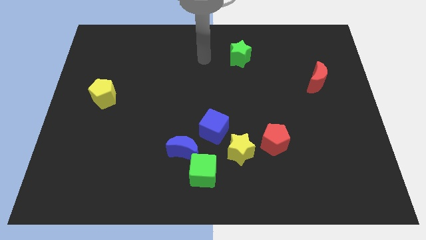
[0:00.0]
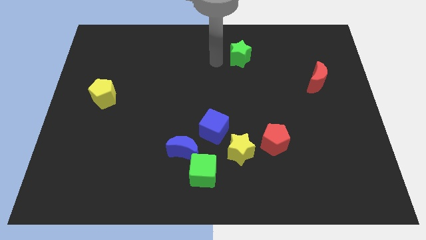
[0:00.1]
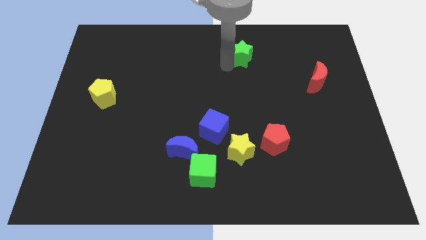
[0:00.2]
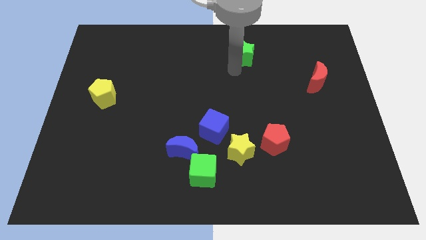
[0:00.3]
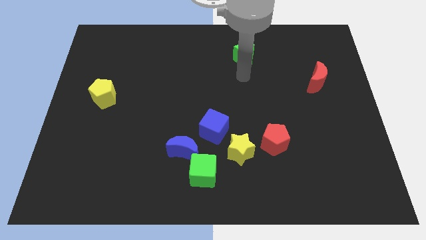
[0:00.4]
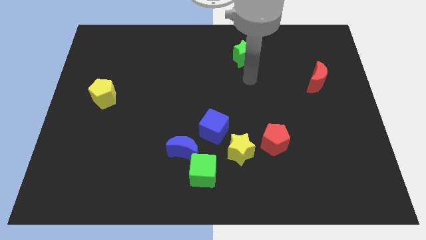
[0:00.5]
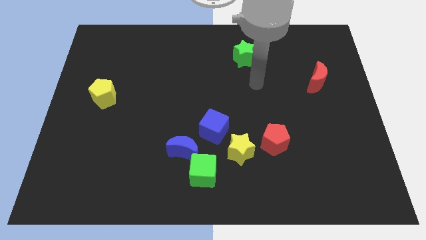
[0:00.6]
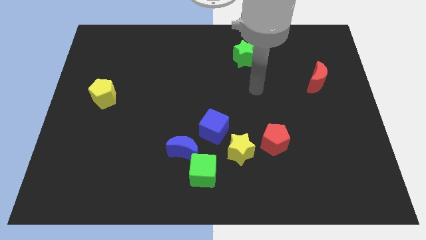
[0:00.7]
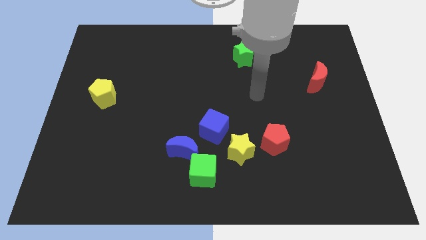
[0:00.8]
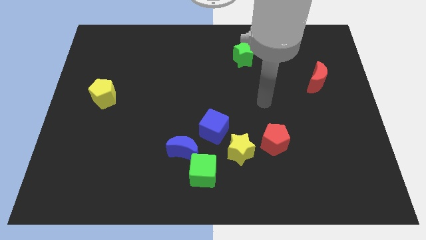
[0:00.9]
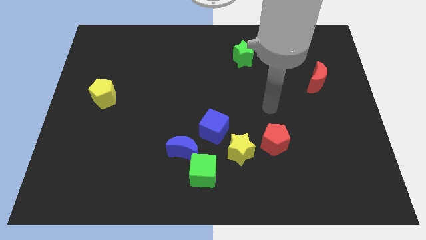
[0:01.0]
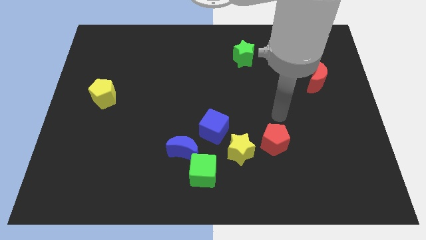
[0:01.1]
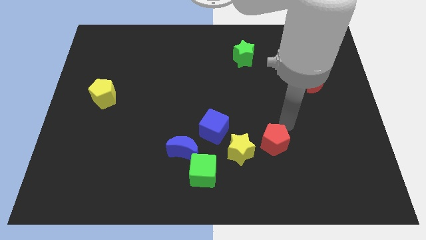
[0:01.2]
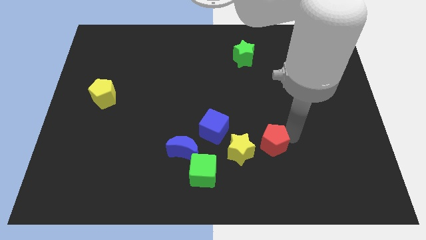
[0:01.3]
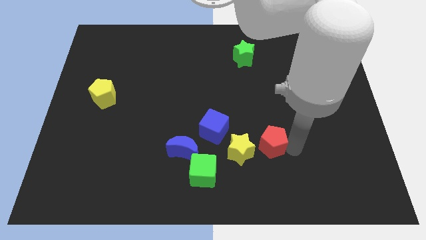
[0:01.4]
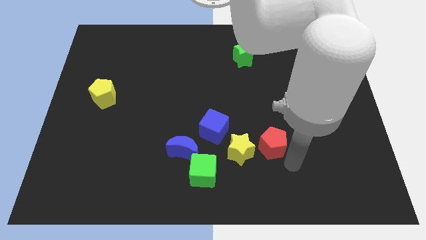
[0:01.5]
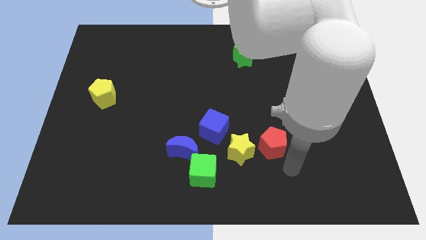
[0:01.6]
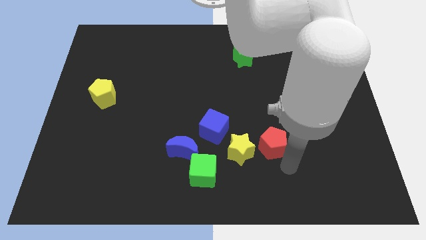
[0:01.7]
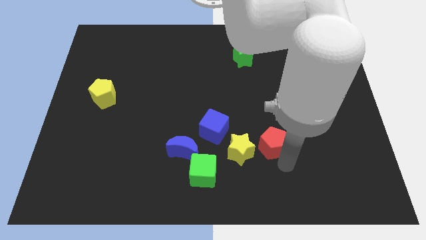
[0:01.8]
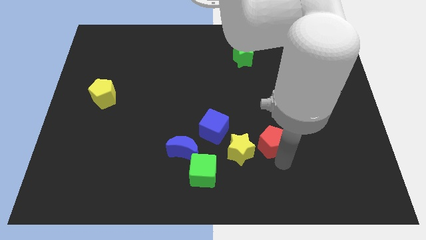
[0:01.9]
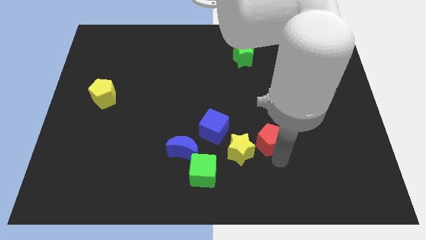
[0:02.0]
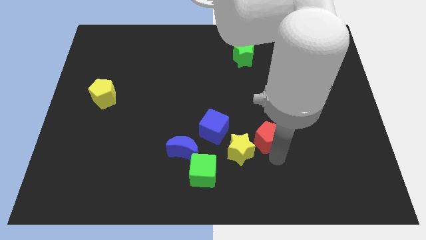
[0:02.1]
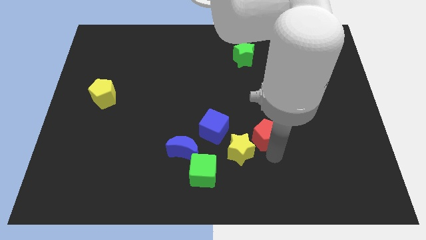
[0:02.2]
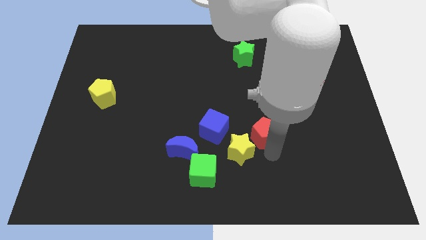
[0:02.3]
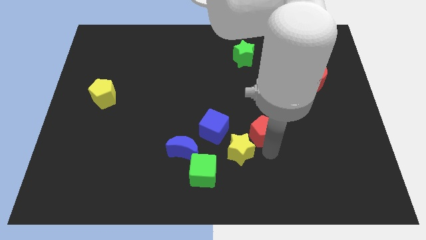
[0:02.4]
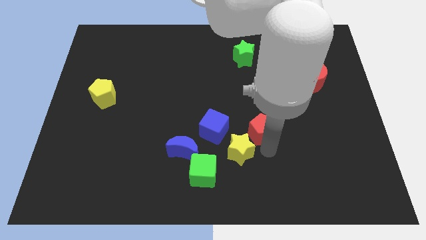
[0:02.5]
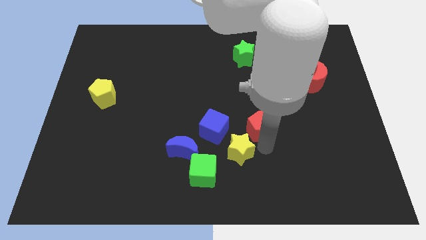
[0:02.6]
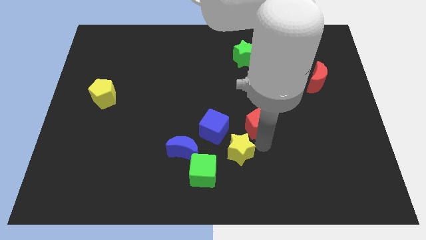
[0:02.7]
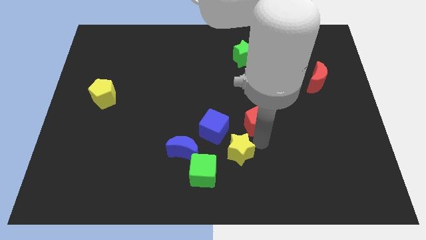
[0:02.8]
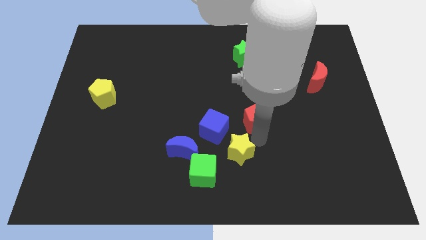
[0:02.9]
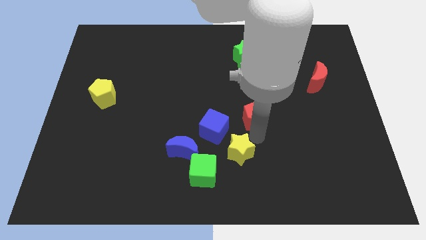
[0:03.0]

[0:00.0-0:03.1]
move the red pentagon slightly up and then to the left

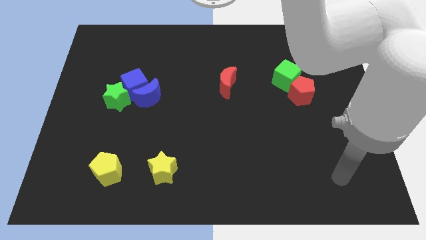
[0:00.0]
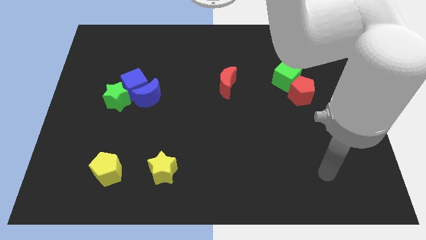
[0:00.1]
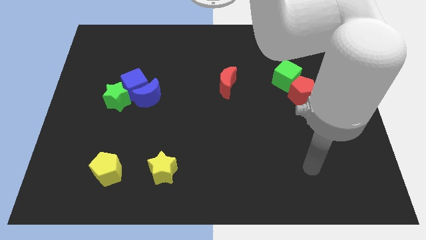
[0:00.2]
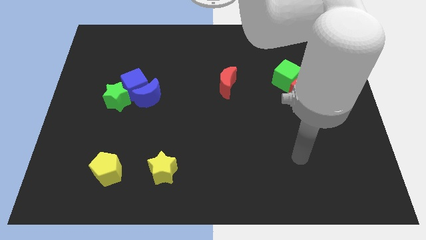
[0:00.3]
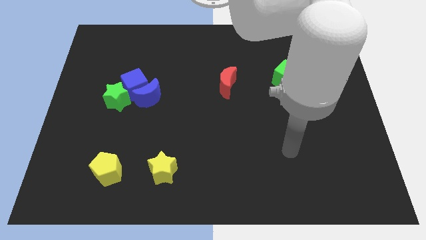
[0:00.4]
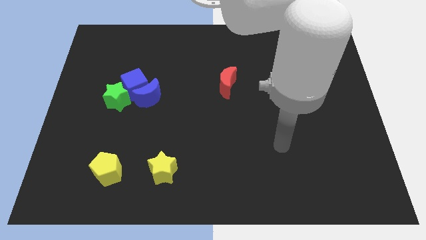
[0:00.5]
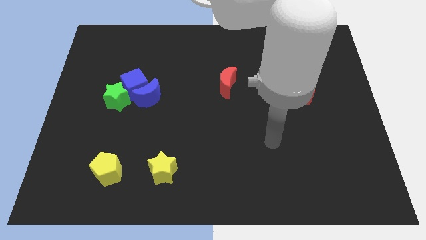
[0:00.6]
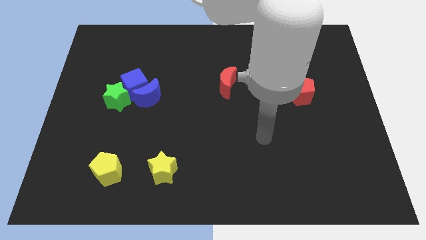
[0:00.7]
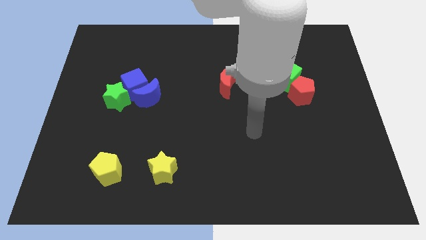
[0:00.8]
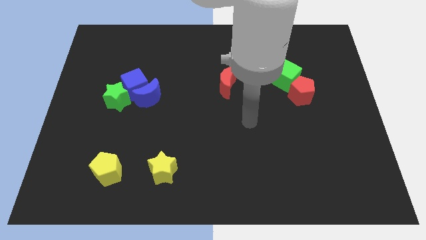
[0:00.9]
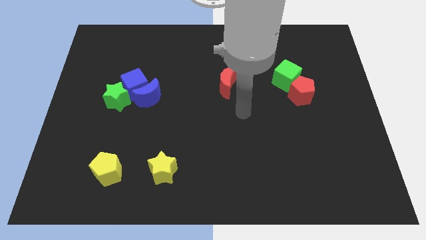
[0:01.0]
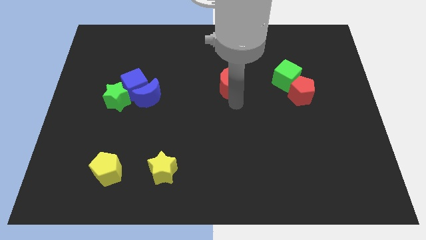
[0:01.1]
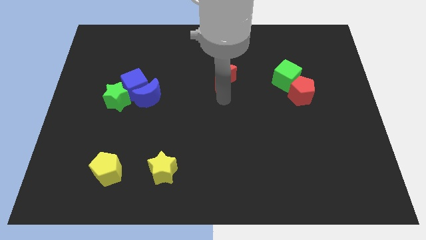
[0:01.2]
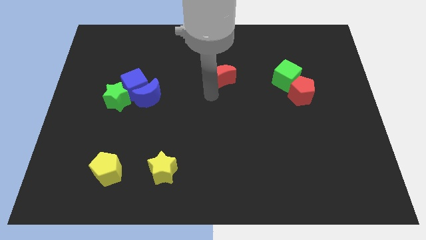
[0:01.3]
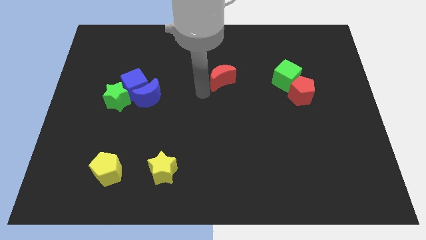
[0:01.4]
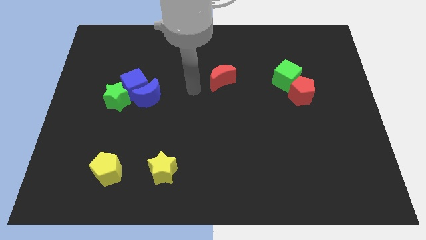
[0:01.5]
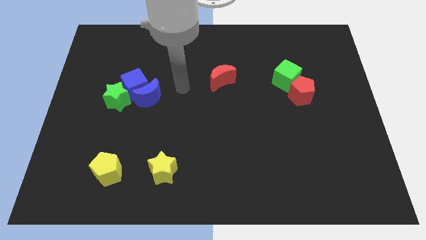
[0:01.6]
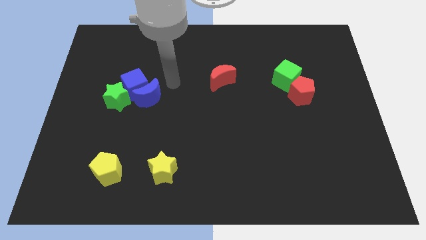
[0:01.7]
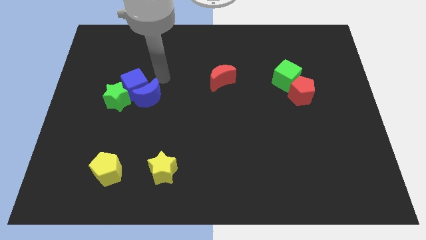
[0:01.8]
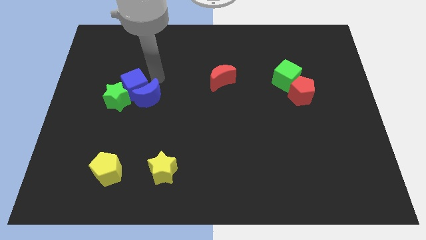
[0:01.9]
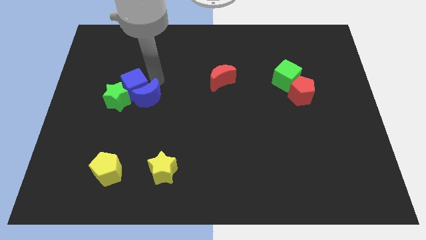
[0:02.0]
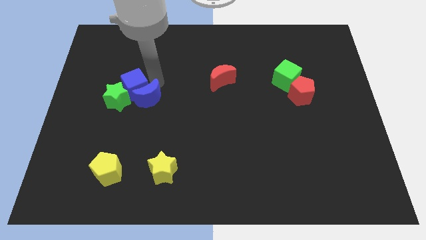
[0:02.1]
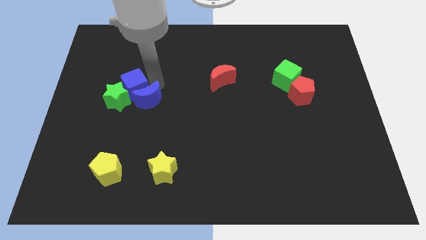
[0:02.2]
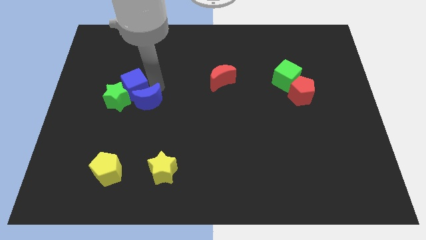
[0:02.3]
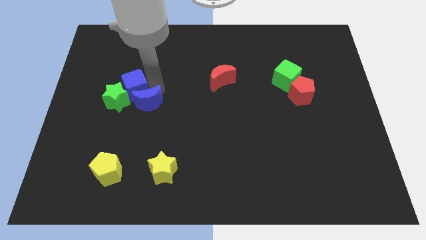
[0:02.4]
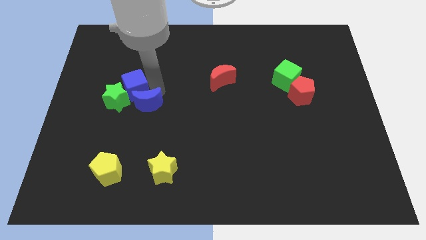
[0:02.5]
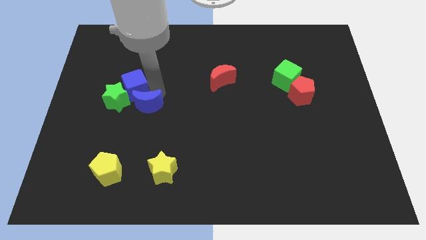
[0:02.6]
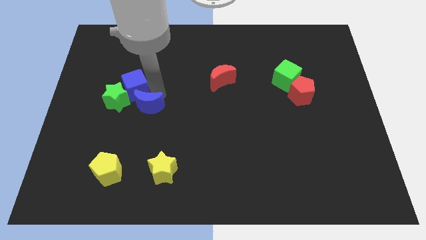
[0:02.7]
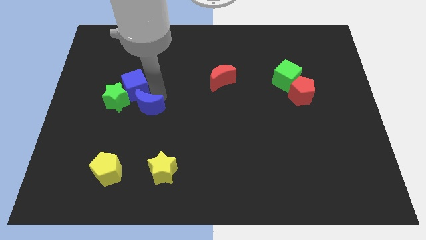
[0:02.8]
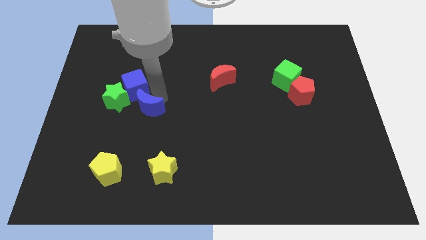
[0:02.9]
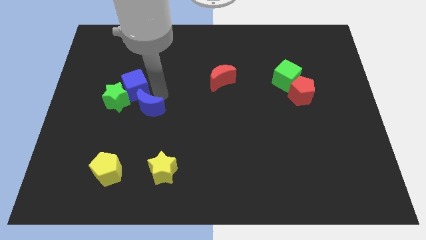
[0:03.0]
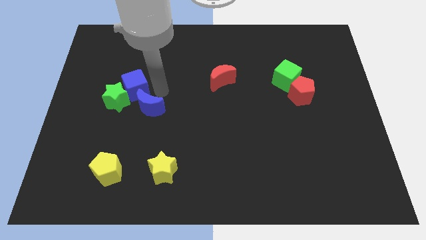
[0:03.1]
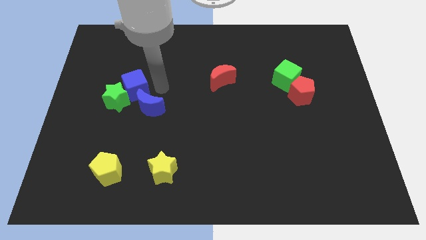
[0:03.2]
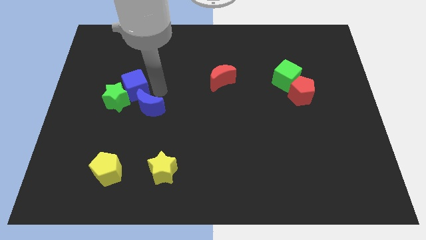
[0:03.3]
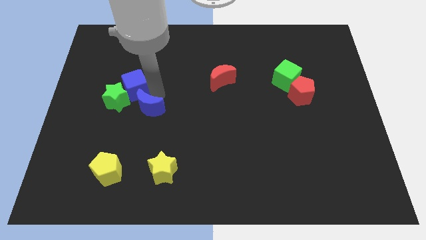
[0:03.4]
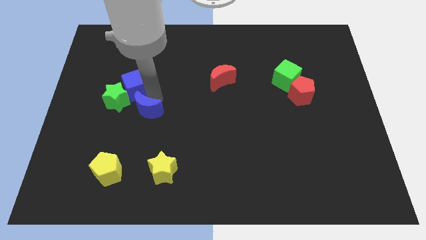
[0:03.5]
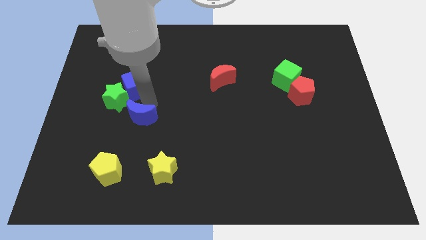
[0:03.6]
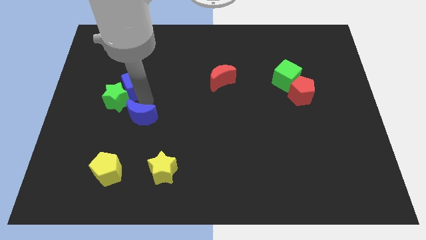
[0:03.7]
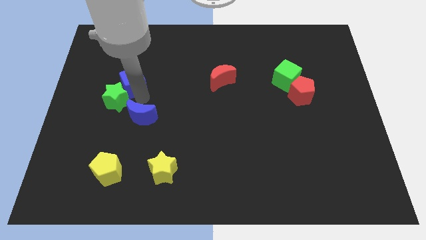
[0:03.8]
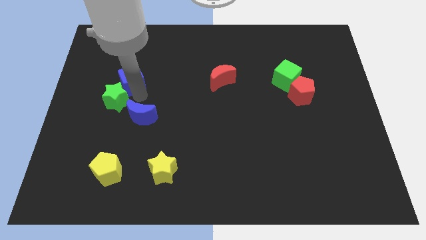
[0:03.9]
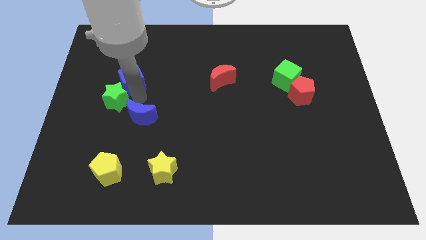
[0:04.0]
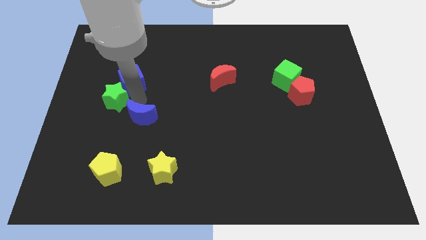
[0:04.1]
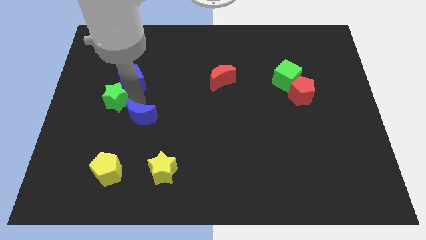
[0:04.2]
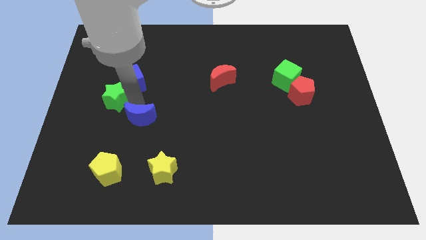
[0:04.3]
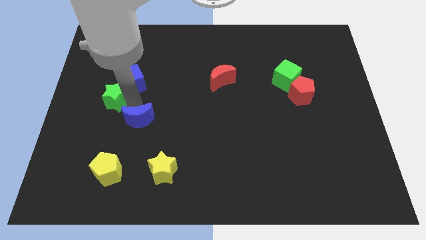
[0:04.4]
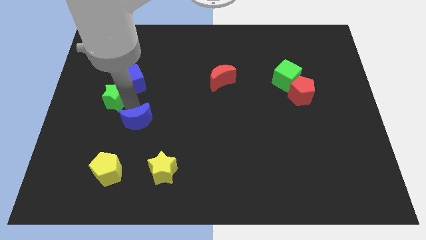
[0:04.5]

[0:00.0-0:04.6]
slide the blue moon a little down
